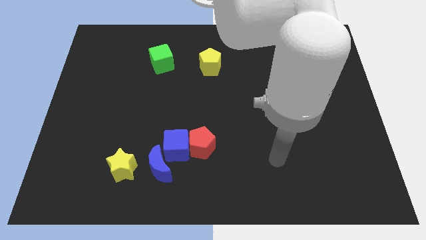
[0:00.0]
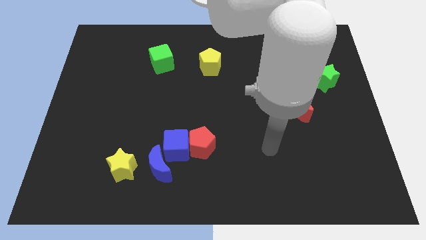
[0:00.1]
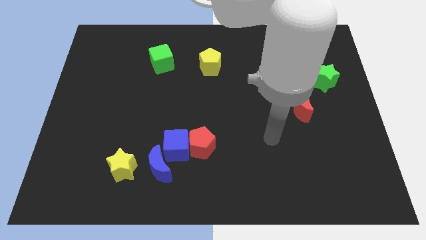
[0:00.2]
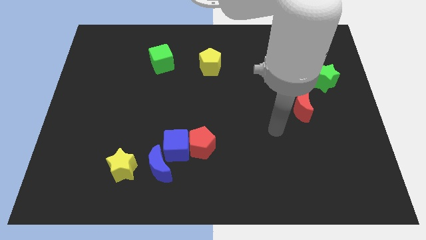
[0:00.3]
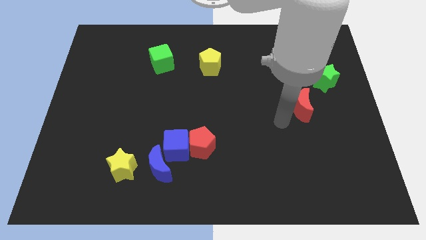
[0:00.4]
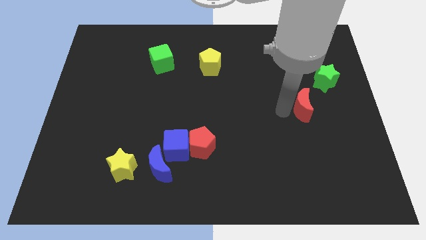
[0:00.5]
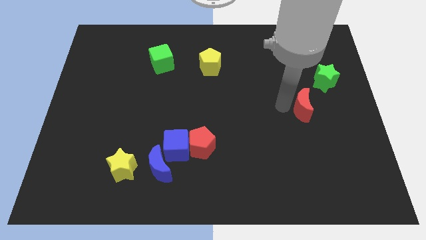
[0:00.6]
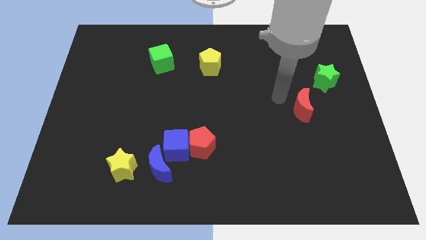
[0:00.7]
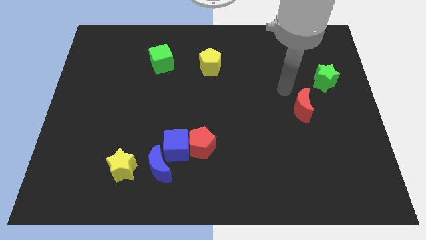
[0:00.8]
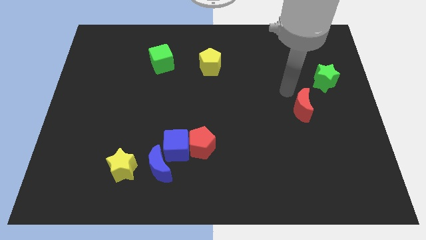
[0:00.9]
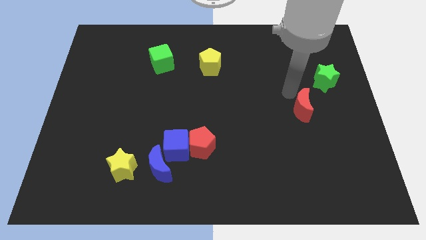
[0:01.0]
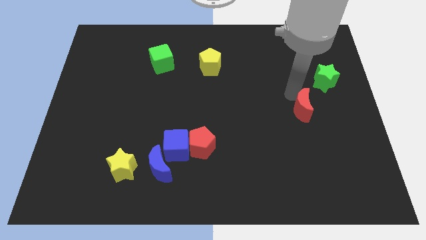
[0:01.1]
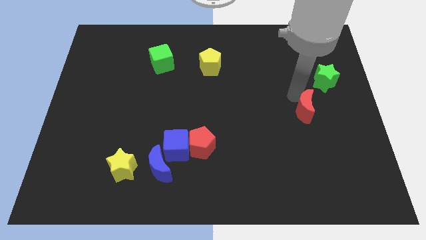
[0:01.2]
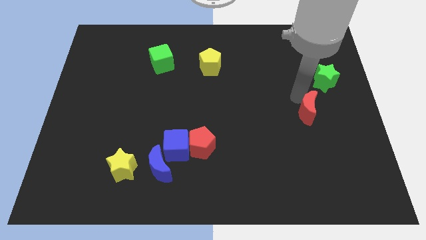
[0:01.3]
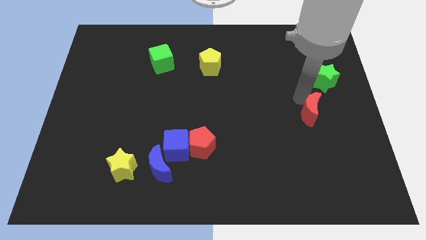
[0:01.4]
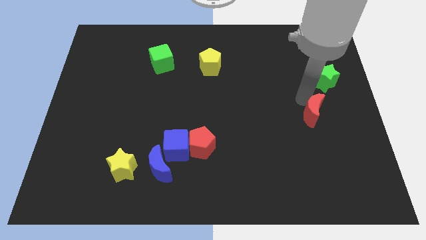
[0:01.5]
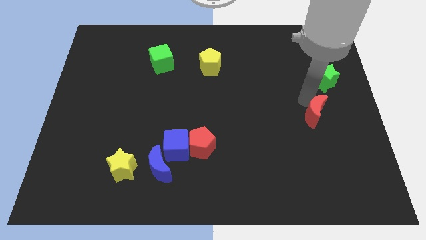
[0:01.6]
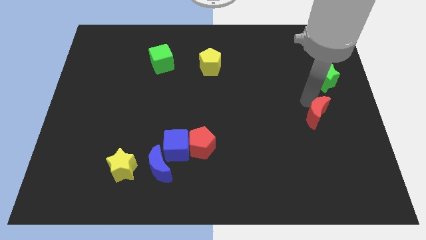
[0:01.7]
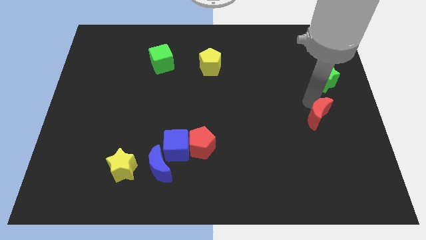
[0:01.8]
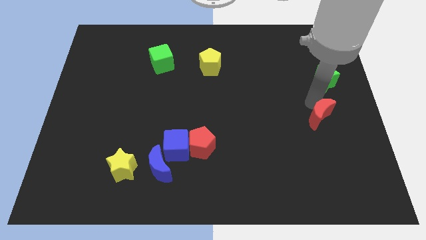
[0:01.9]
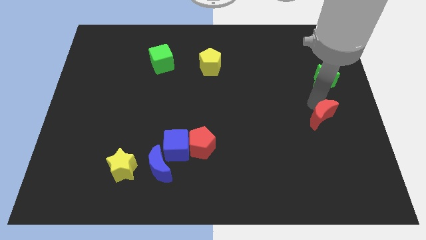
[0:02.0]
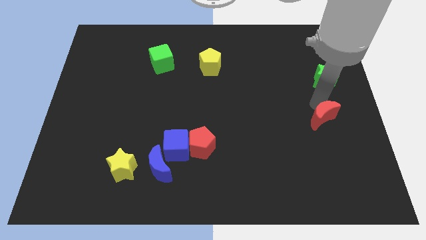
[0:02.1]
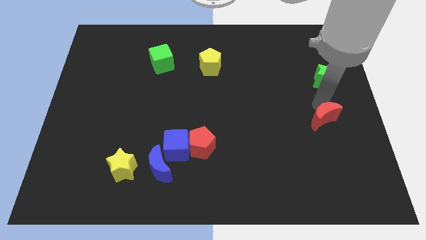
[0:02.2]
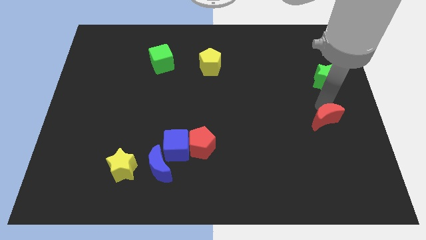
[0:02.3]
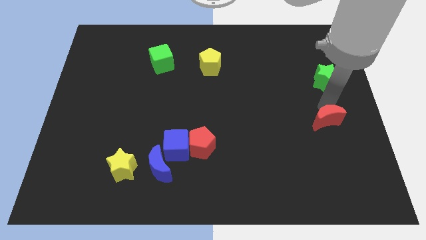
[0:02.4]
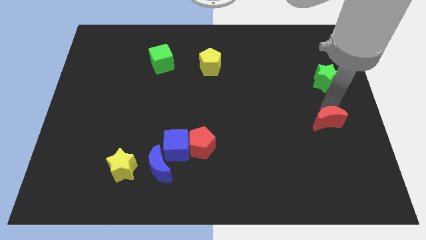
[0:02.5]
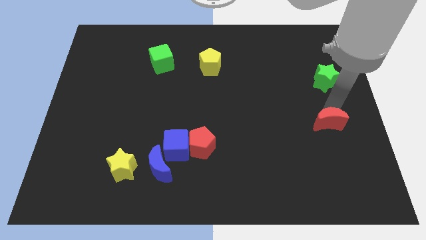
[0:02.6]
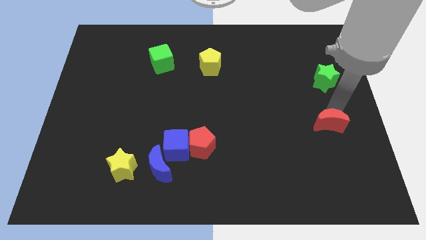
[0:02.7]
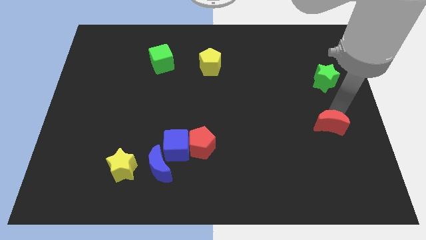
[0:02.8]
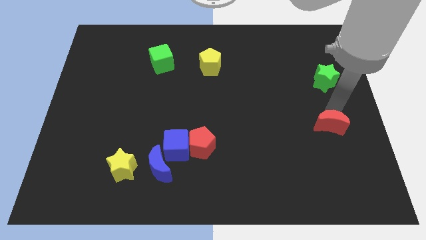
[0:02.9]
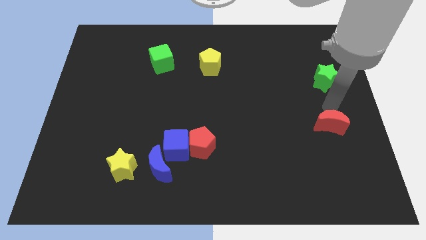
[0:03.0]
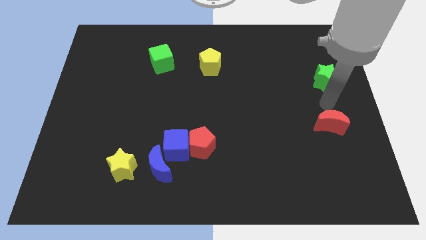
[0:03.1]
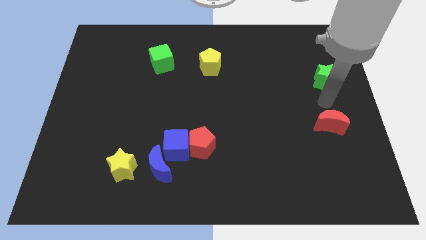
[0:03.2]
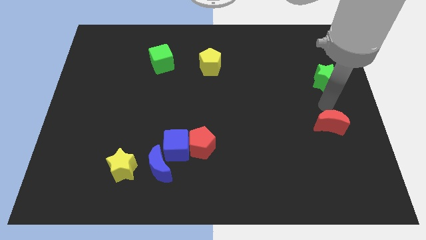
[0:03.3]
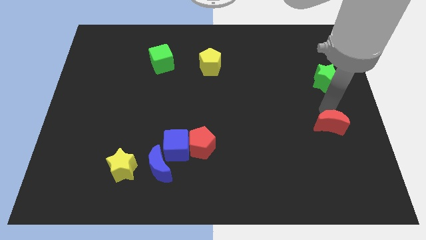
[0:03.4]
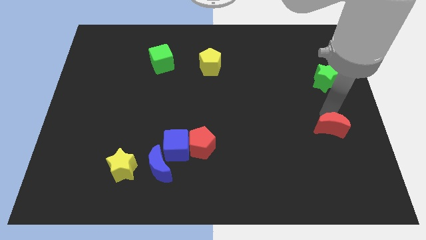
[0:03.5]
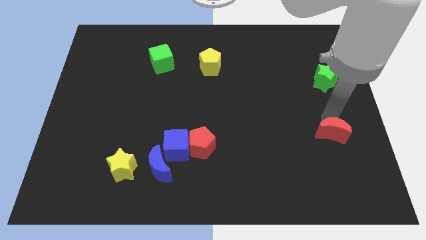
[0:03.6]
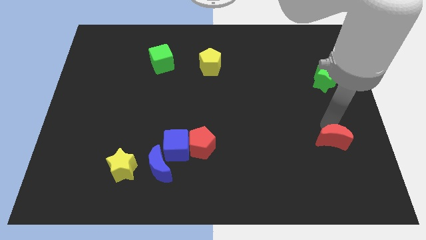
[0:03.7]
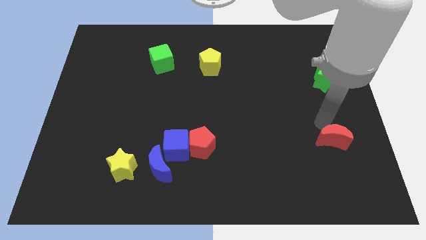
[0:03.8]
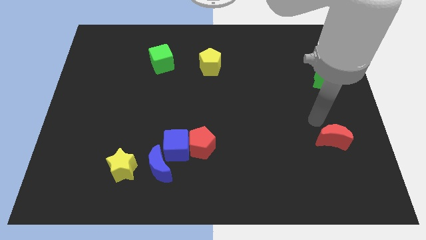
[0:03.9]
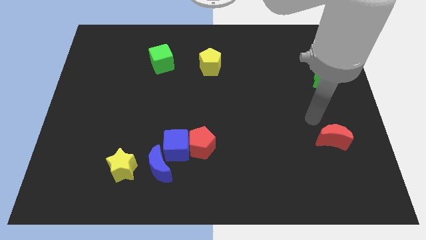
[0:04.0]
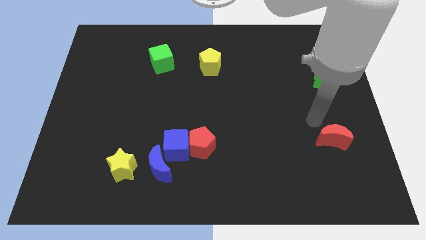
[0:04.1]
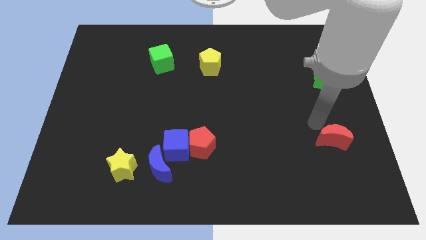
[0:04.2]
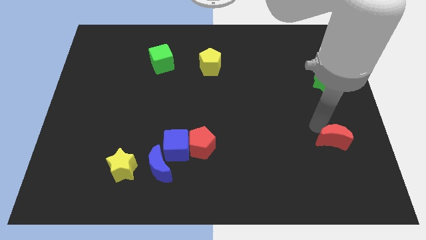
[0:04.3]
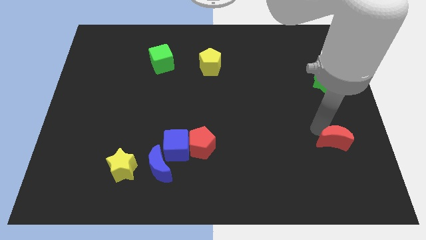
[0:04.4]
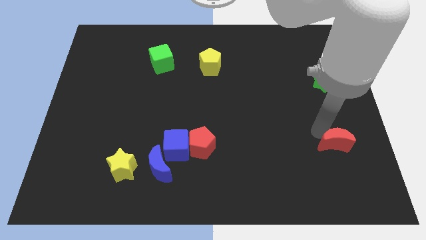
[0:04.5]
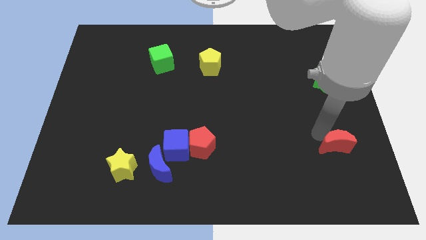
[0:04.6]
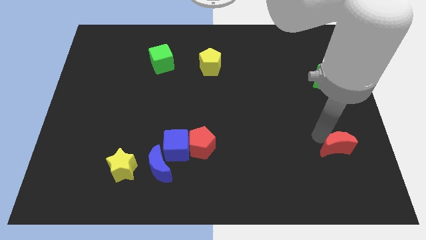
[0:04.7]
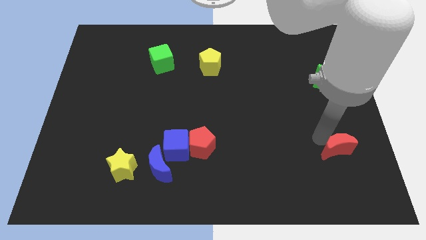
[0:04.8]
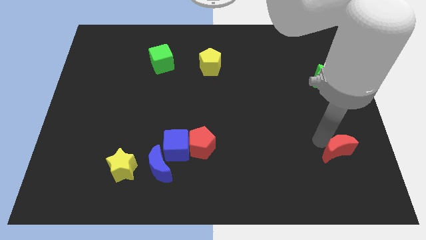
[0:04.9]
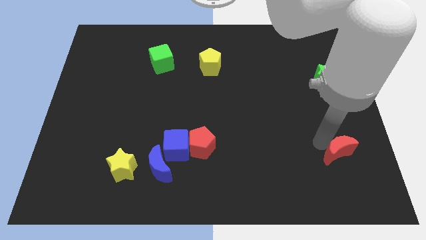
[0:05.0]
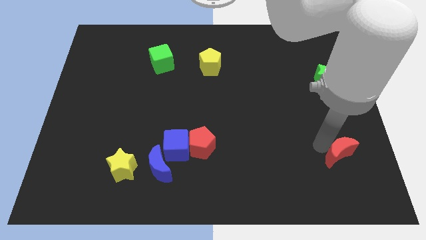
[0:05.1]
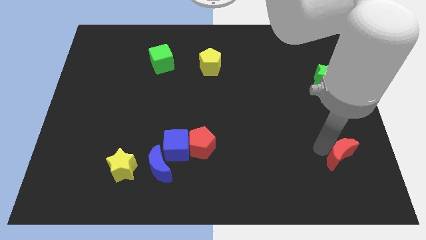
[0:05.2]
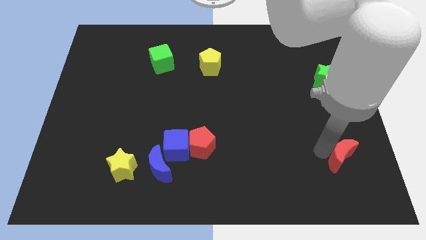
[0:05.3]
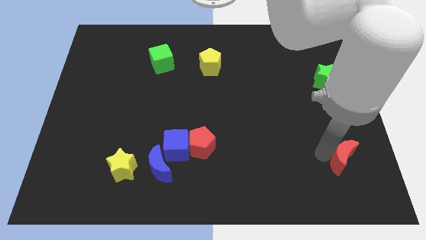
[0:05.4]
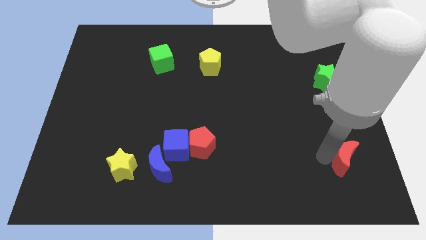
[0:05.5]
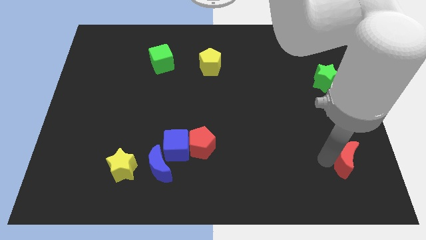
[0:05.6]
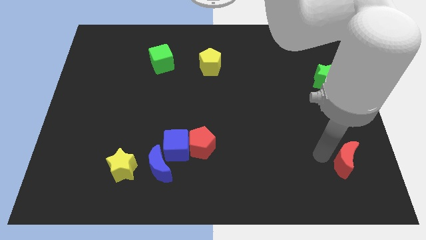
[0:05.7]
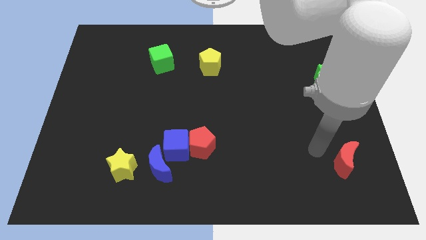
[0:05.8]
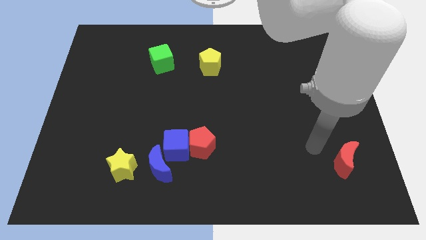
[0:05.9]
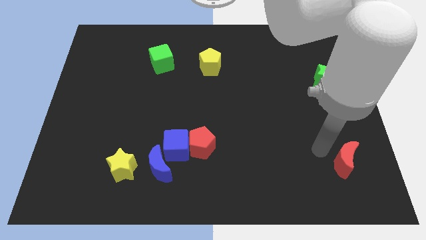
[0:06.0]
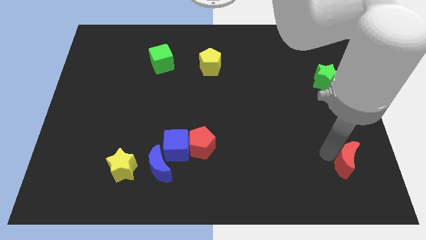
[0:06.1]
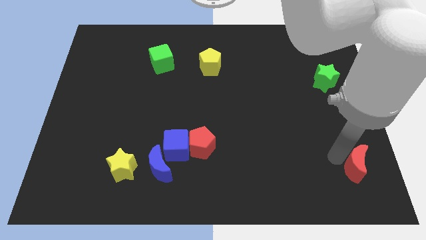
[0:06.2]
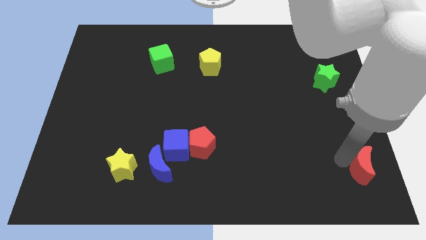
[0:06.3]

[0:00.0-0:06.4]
push the red moon to the bottom right of the board
